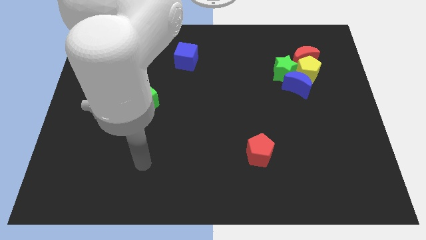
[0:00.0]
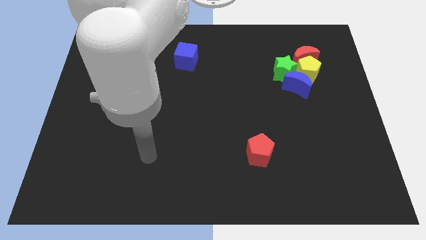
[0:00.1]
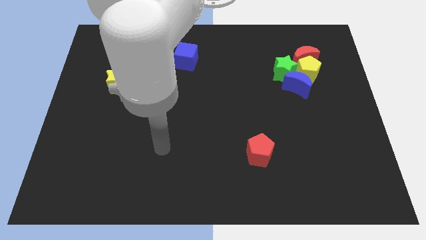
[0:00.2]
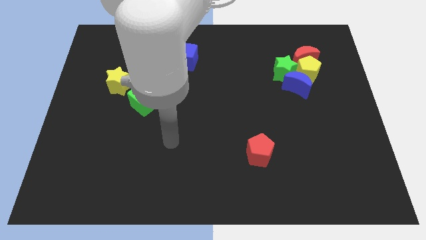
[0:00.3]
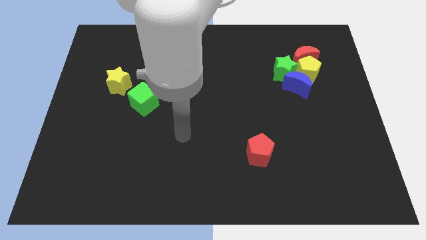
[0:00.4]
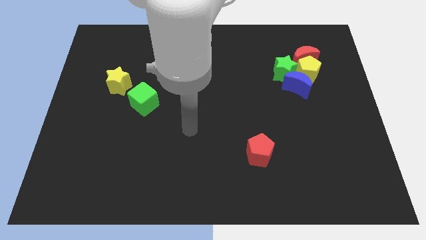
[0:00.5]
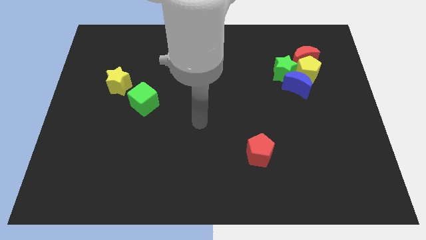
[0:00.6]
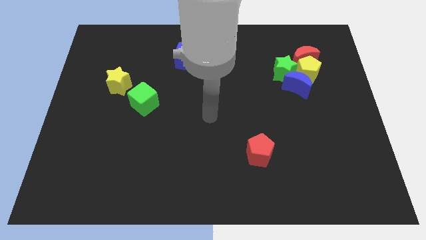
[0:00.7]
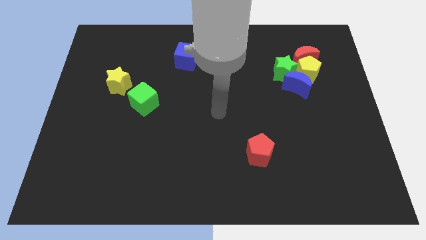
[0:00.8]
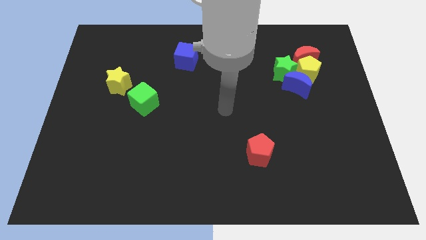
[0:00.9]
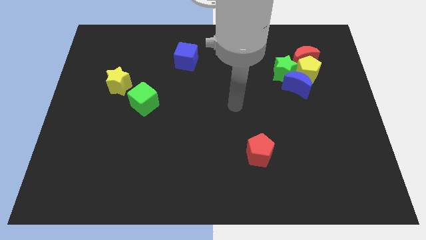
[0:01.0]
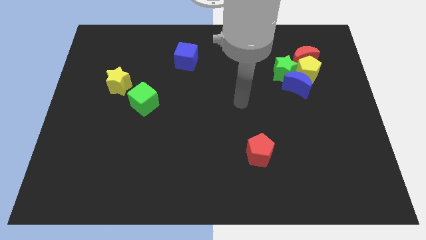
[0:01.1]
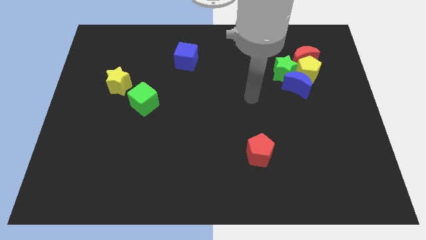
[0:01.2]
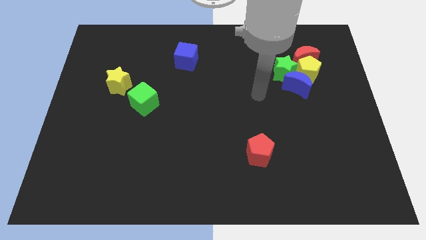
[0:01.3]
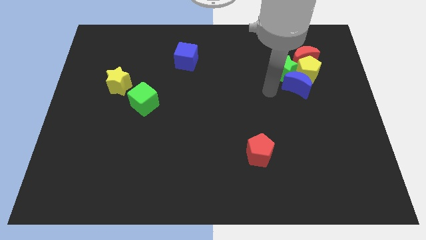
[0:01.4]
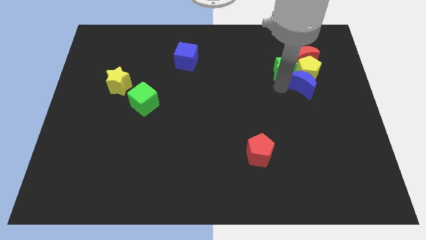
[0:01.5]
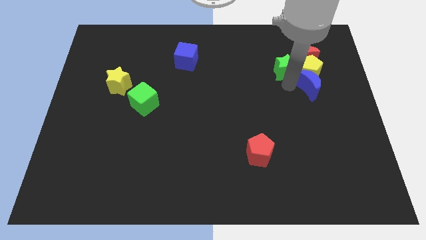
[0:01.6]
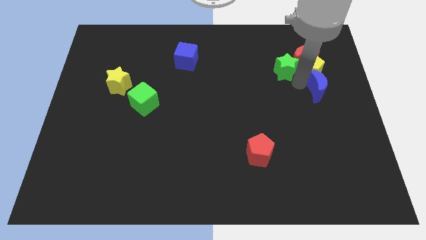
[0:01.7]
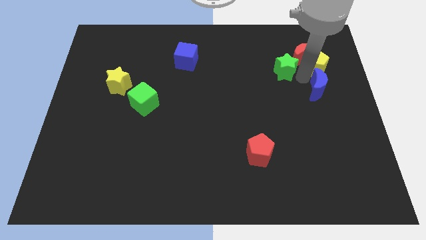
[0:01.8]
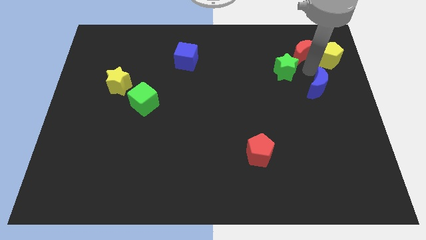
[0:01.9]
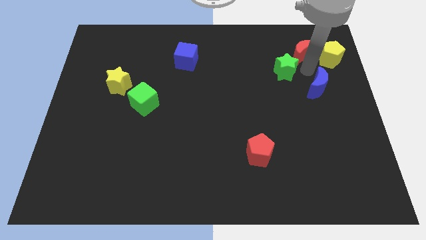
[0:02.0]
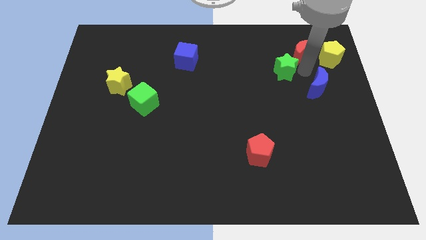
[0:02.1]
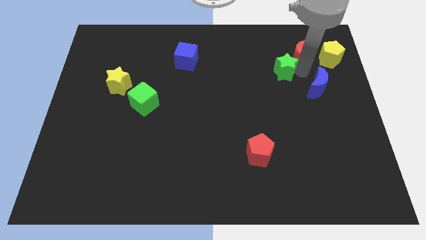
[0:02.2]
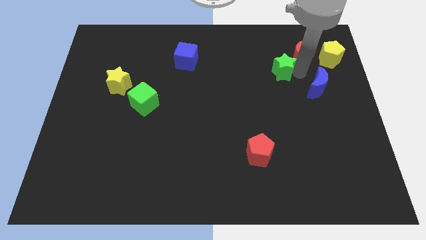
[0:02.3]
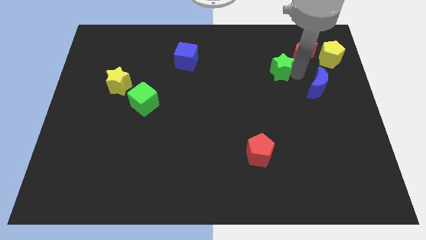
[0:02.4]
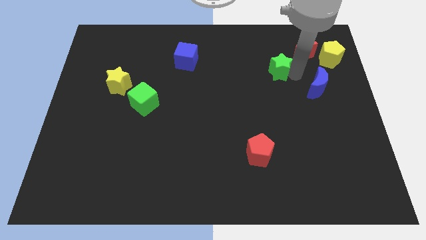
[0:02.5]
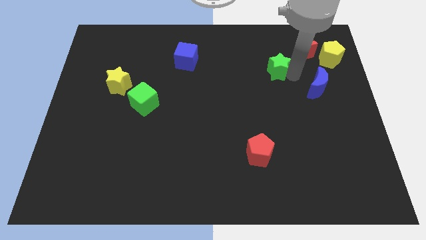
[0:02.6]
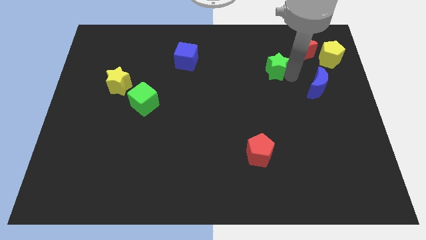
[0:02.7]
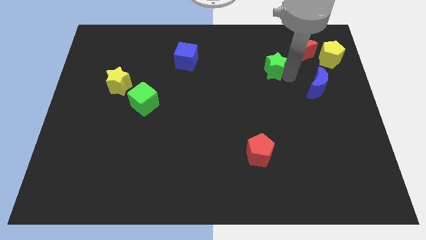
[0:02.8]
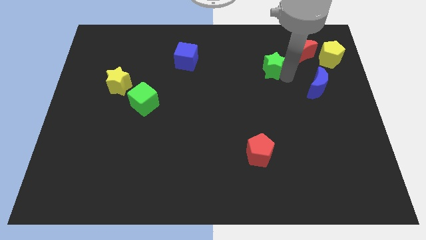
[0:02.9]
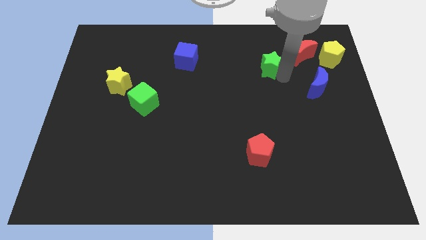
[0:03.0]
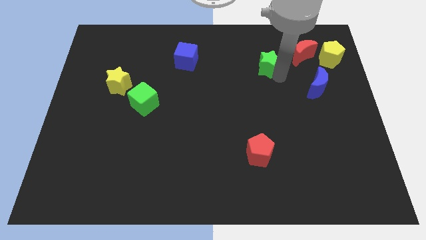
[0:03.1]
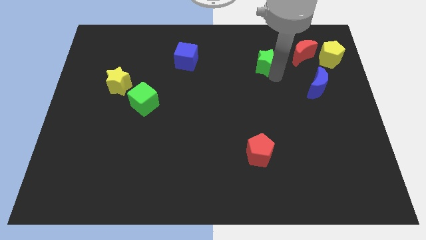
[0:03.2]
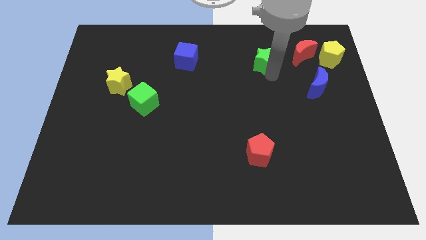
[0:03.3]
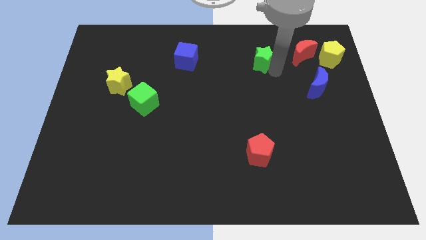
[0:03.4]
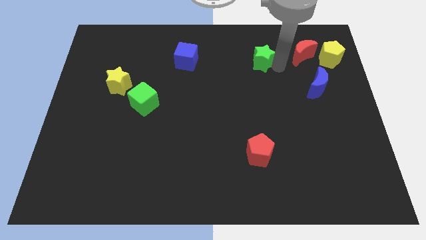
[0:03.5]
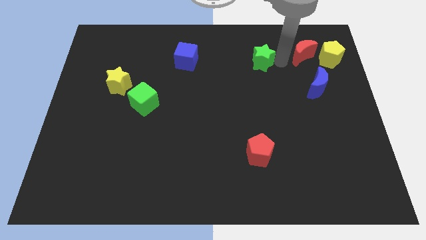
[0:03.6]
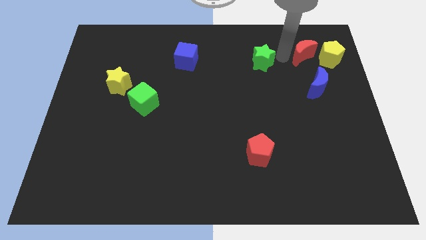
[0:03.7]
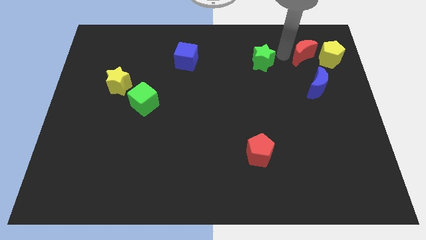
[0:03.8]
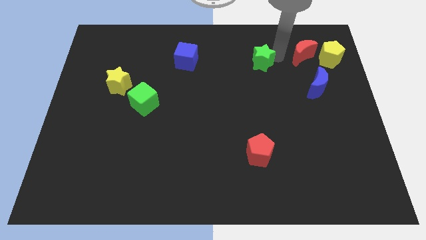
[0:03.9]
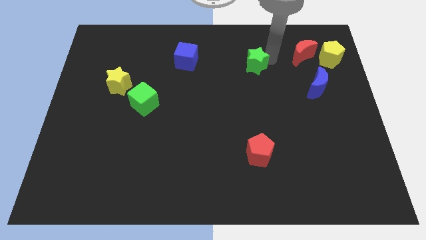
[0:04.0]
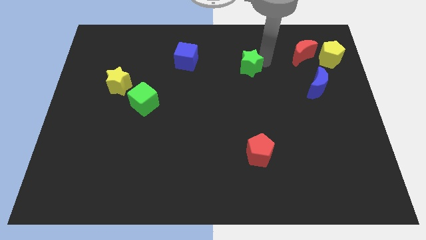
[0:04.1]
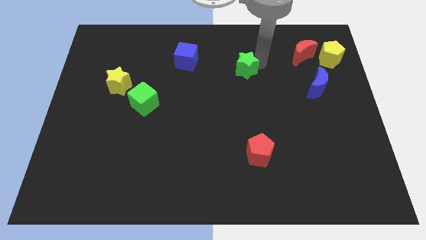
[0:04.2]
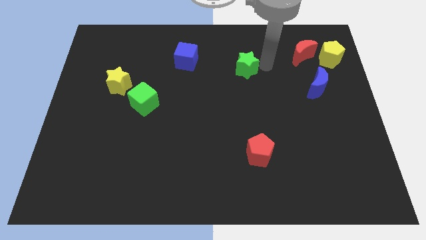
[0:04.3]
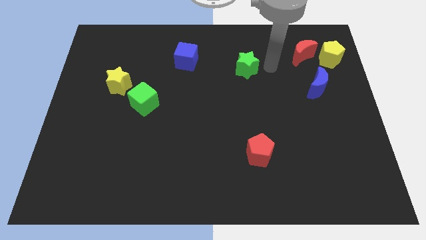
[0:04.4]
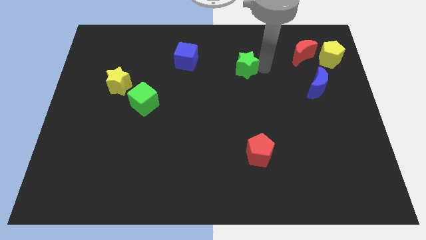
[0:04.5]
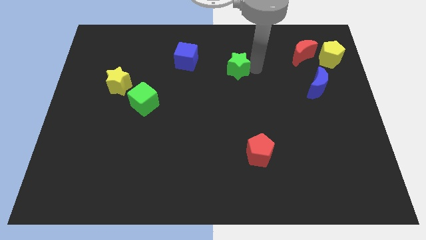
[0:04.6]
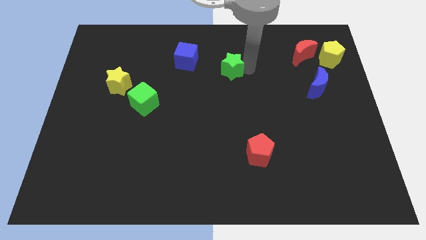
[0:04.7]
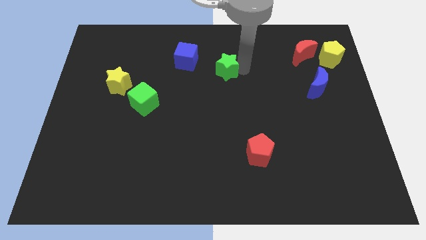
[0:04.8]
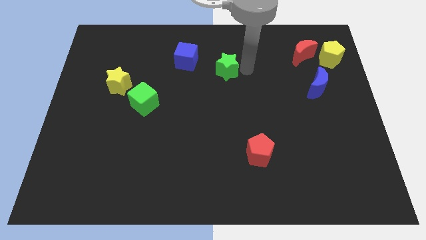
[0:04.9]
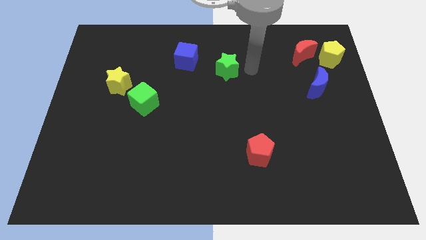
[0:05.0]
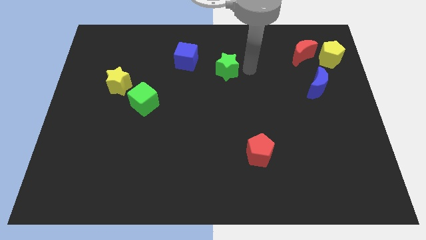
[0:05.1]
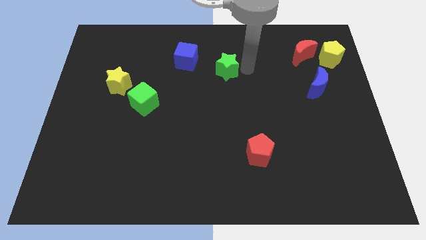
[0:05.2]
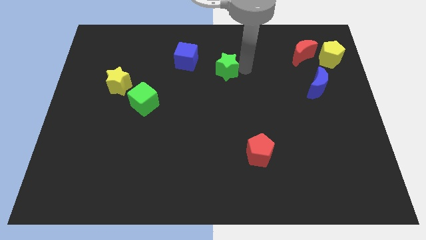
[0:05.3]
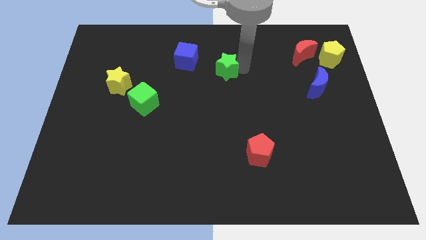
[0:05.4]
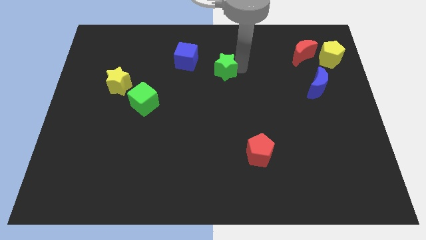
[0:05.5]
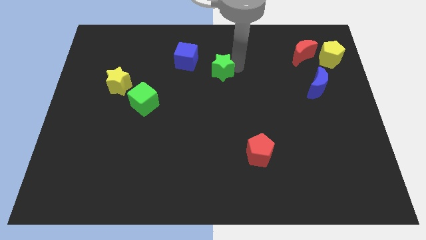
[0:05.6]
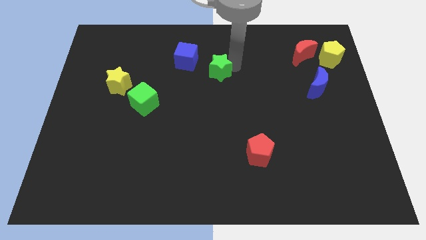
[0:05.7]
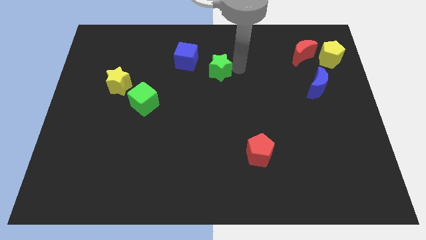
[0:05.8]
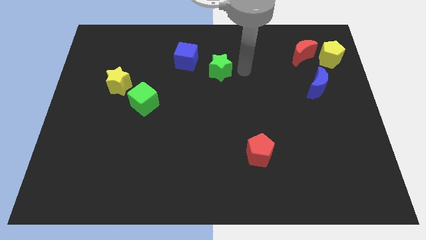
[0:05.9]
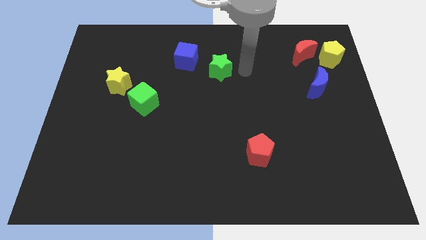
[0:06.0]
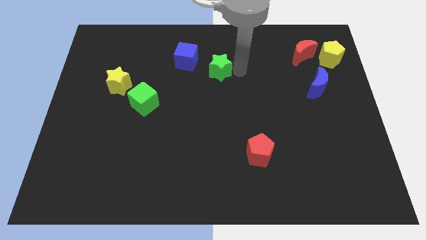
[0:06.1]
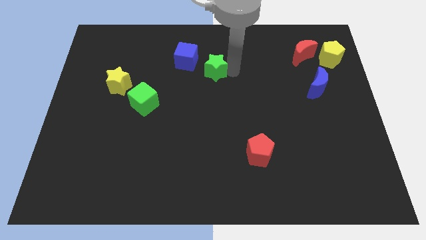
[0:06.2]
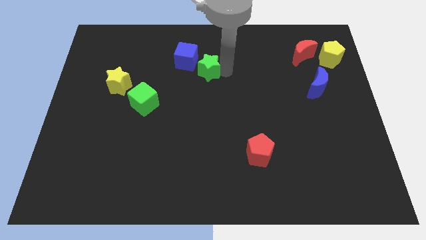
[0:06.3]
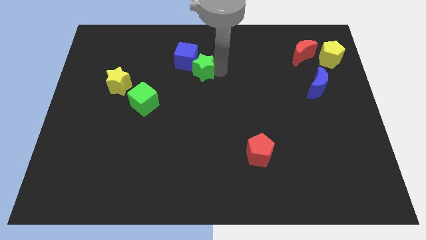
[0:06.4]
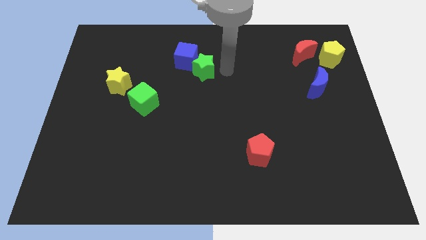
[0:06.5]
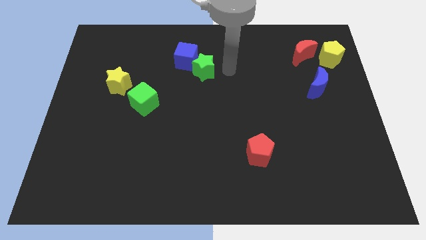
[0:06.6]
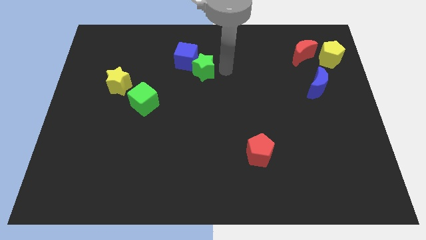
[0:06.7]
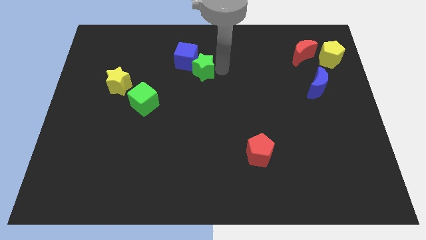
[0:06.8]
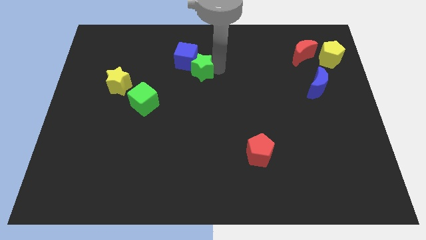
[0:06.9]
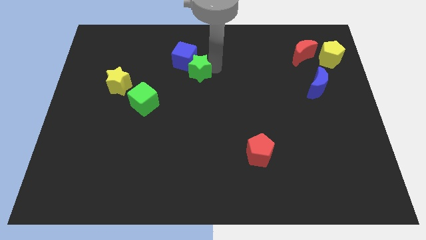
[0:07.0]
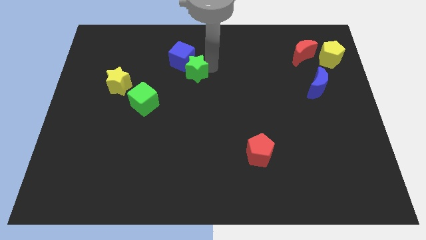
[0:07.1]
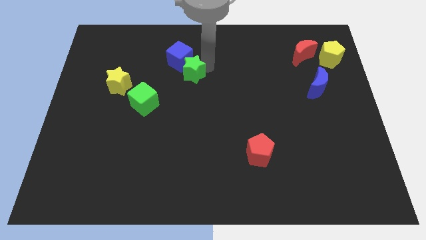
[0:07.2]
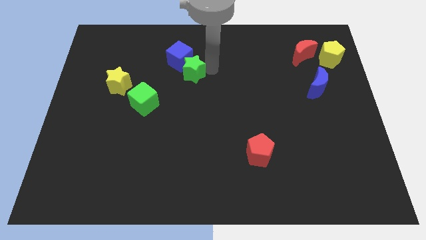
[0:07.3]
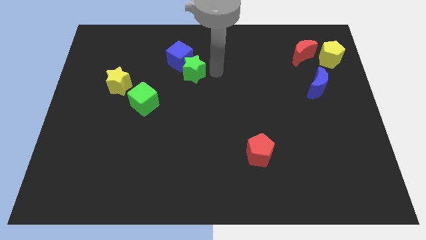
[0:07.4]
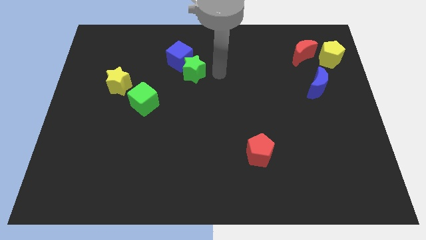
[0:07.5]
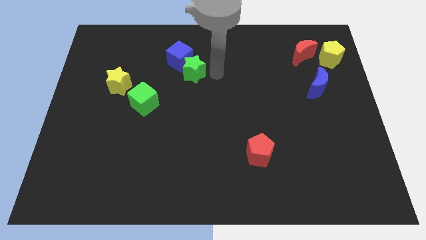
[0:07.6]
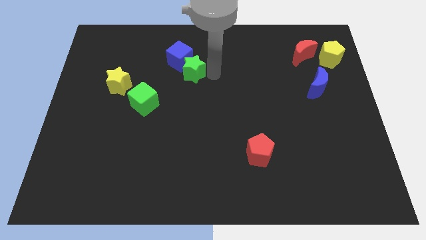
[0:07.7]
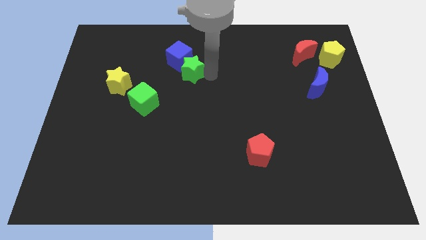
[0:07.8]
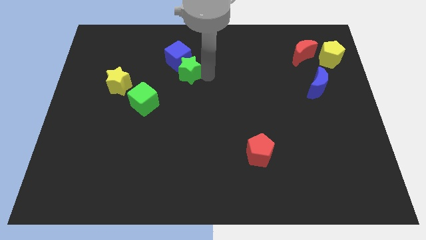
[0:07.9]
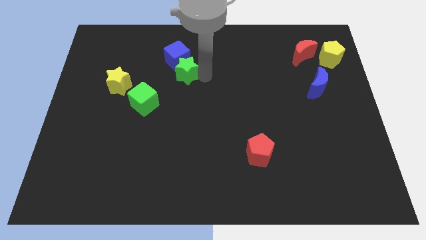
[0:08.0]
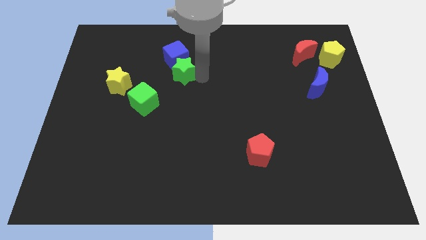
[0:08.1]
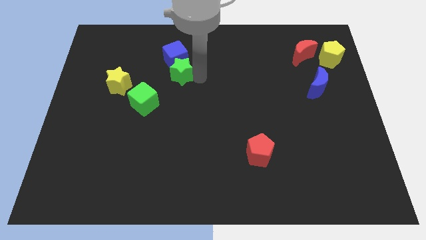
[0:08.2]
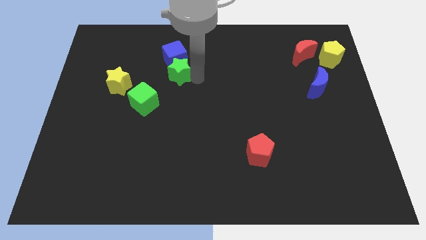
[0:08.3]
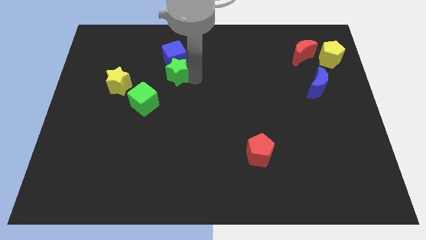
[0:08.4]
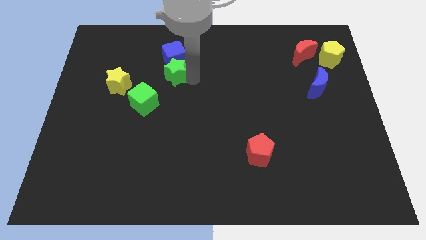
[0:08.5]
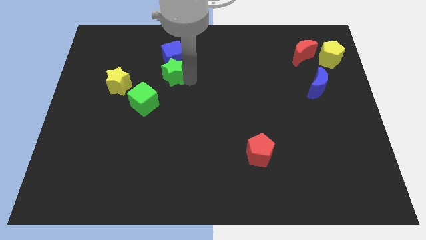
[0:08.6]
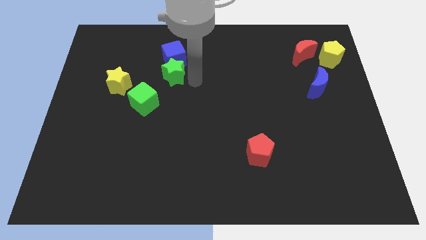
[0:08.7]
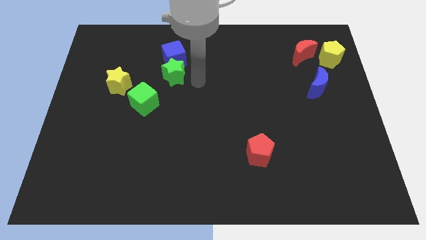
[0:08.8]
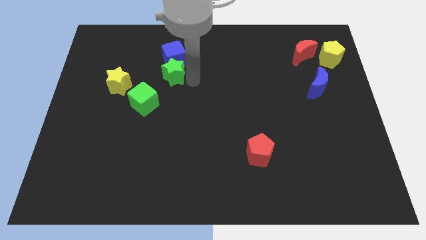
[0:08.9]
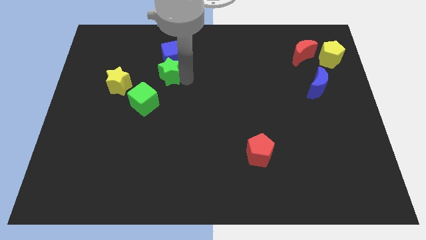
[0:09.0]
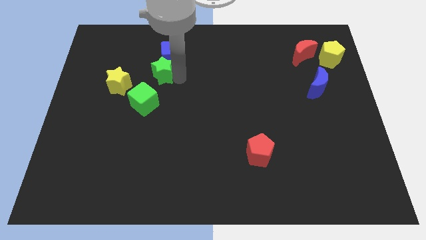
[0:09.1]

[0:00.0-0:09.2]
move the green star to the top side of the green cube
